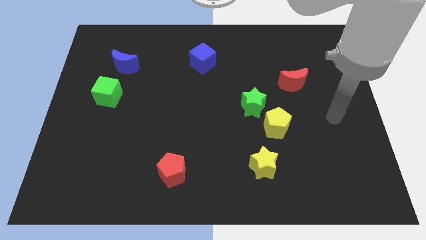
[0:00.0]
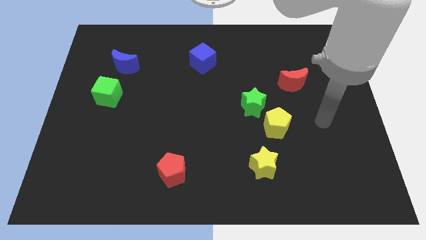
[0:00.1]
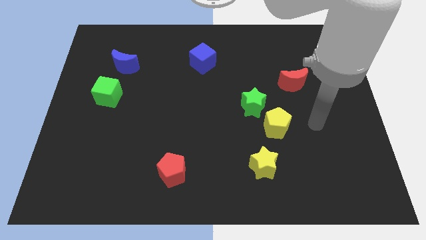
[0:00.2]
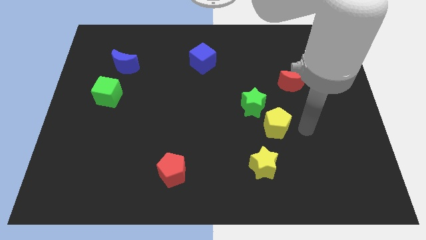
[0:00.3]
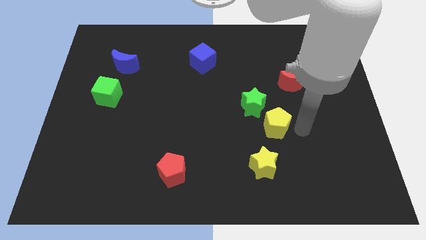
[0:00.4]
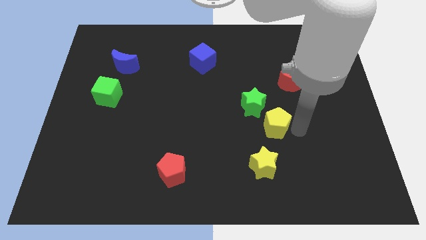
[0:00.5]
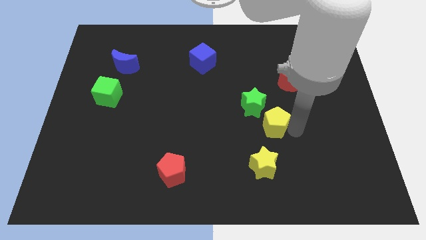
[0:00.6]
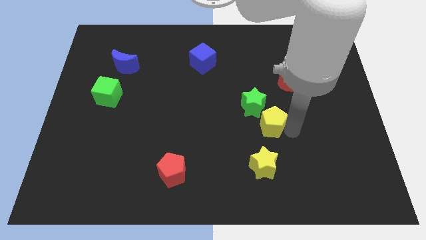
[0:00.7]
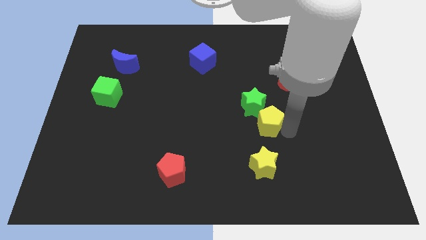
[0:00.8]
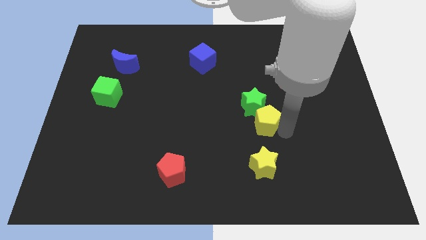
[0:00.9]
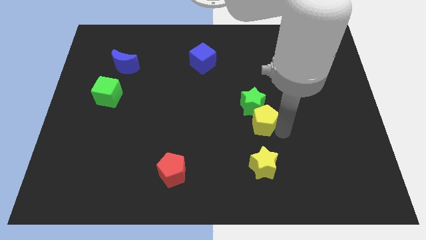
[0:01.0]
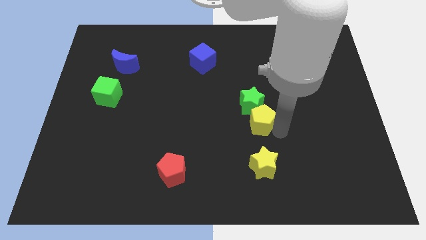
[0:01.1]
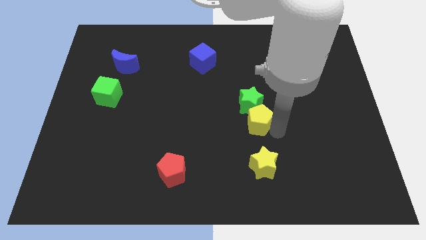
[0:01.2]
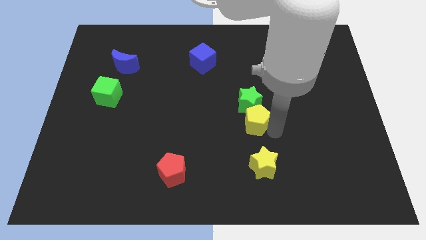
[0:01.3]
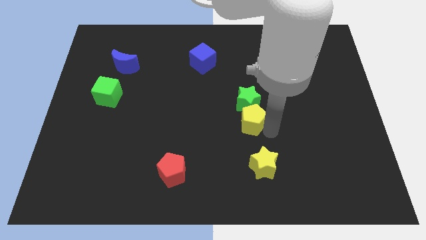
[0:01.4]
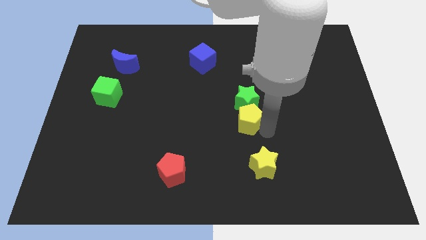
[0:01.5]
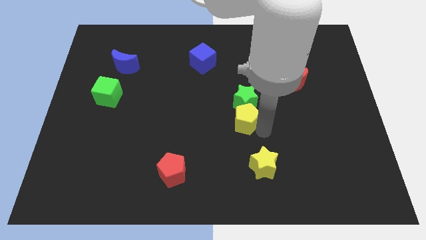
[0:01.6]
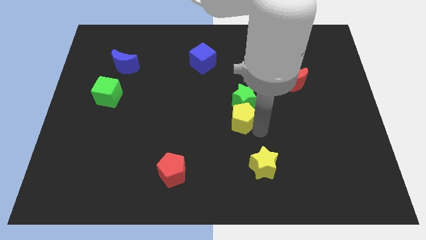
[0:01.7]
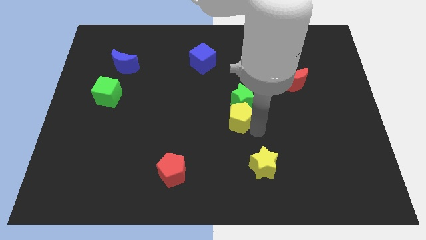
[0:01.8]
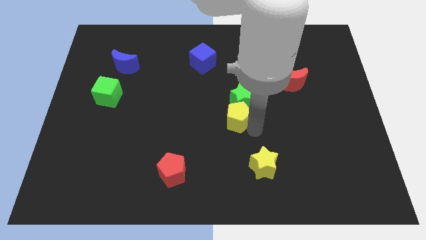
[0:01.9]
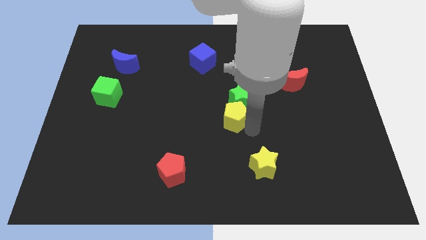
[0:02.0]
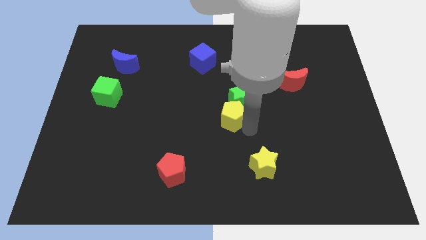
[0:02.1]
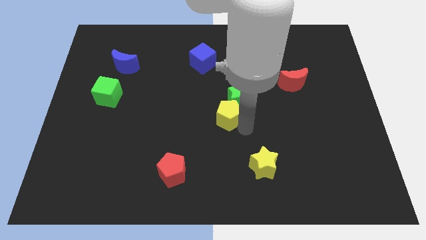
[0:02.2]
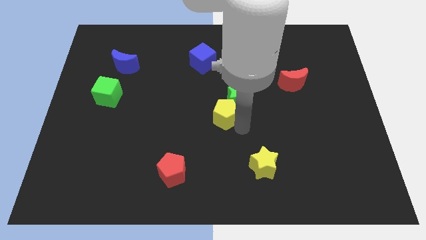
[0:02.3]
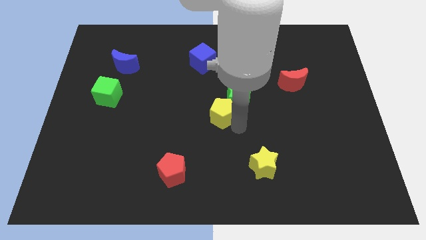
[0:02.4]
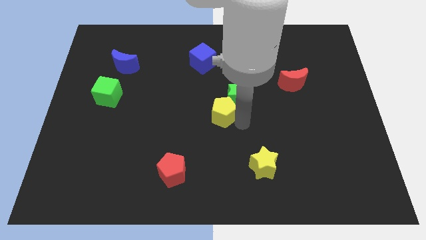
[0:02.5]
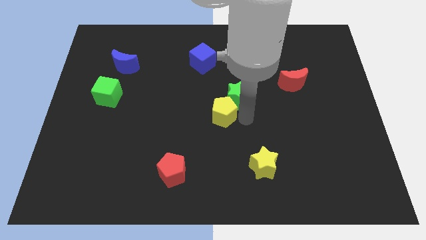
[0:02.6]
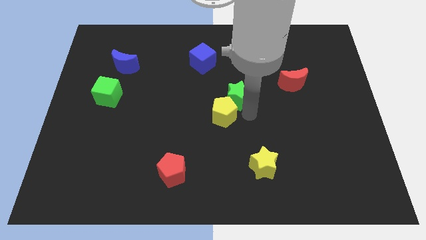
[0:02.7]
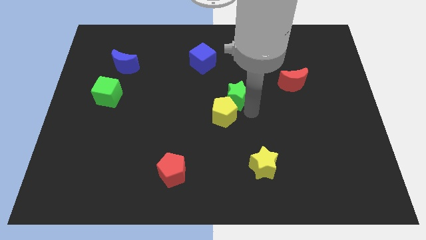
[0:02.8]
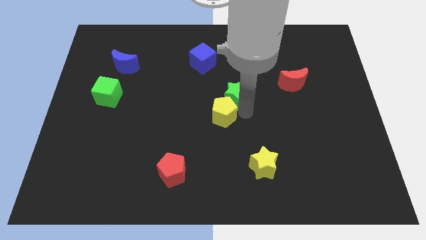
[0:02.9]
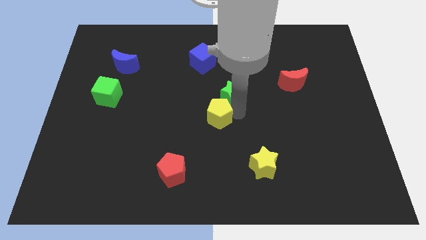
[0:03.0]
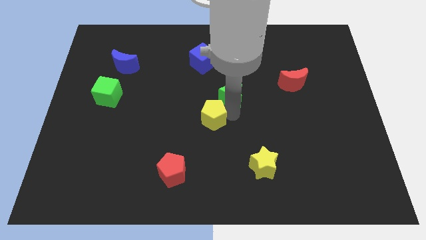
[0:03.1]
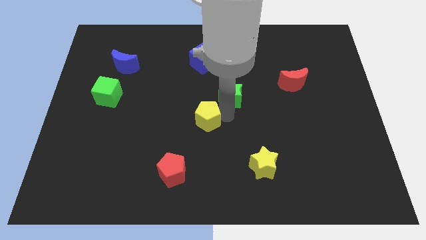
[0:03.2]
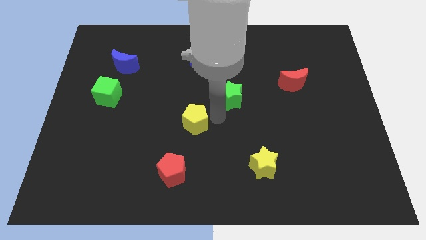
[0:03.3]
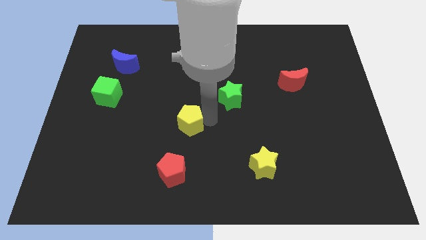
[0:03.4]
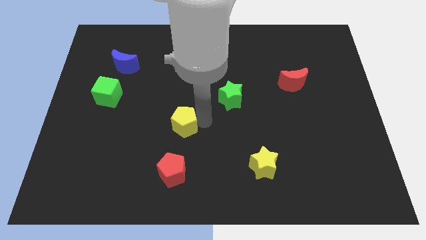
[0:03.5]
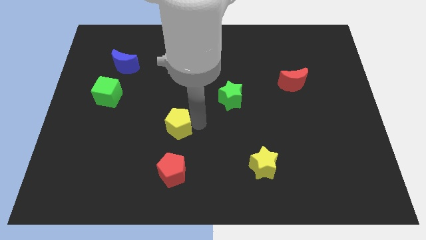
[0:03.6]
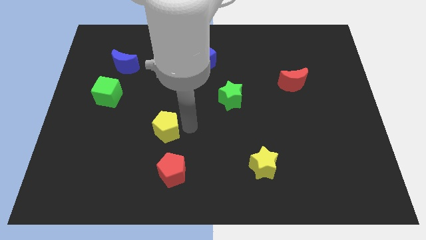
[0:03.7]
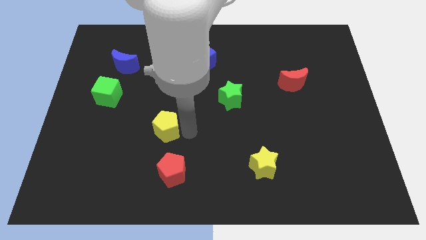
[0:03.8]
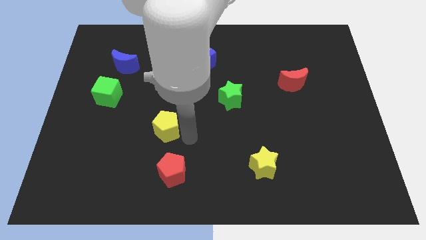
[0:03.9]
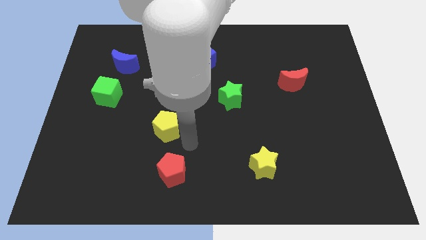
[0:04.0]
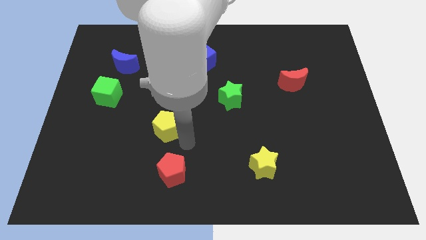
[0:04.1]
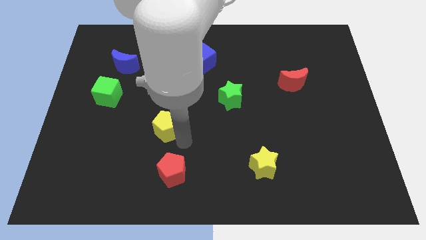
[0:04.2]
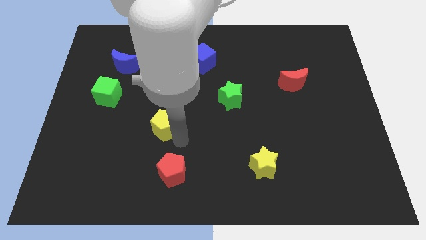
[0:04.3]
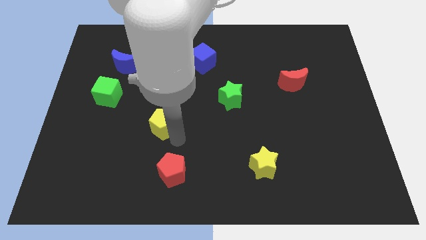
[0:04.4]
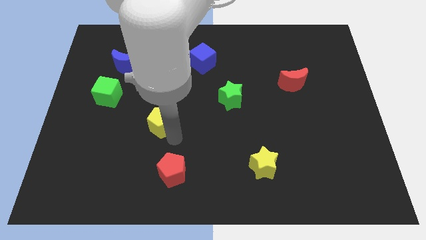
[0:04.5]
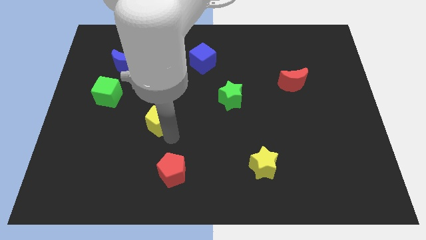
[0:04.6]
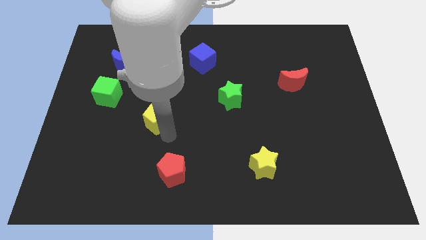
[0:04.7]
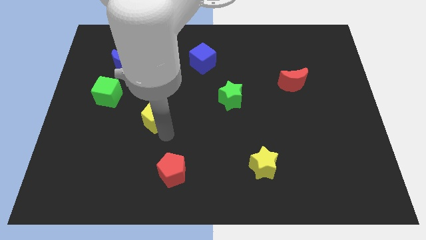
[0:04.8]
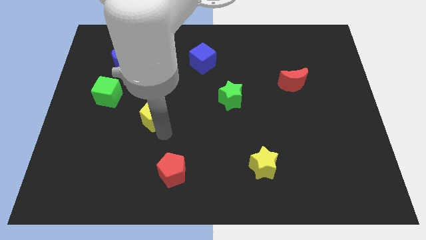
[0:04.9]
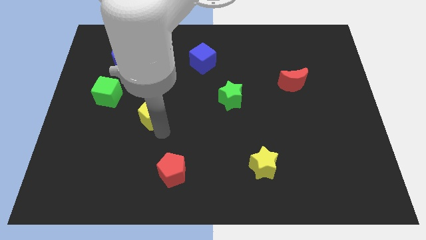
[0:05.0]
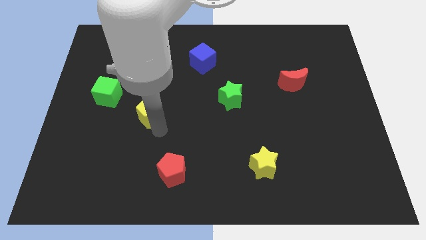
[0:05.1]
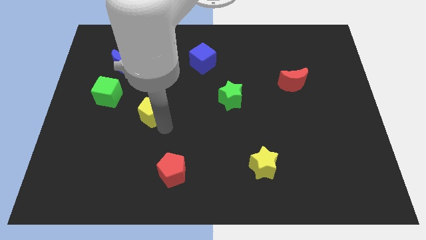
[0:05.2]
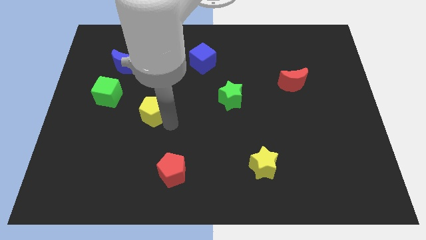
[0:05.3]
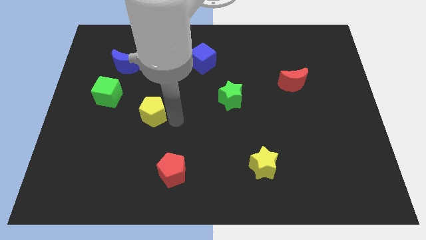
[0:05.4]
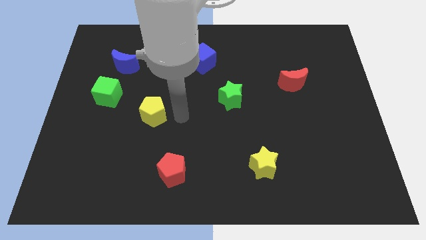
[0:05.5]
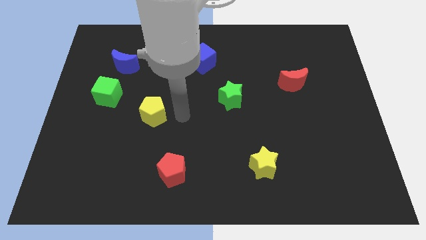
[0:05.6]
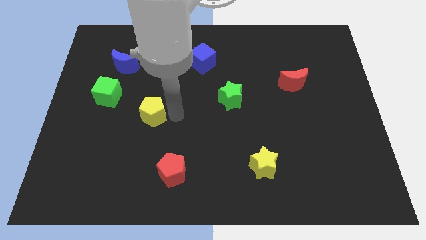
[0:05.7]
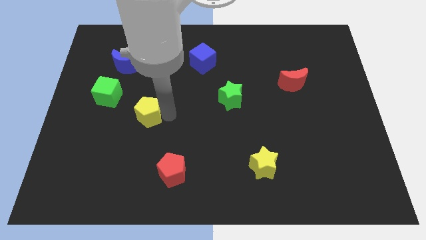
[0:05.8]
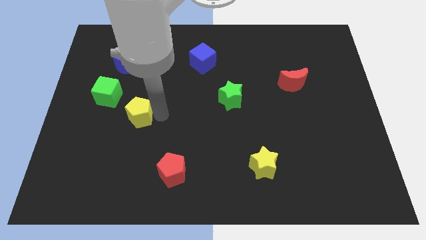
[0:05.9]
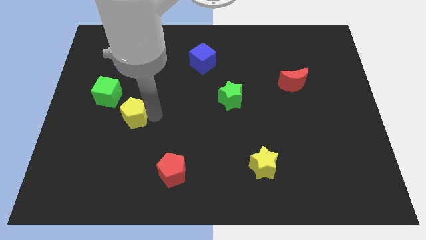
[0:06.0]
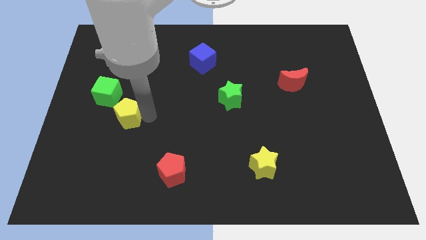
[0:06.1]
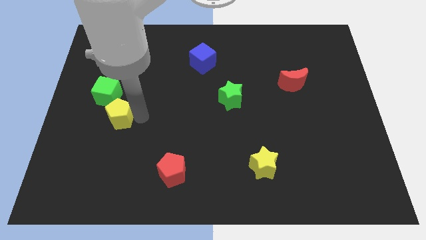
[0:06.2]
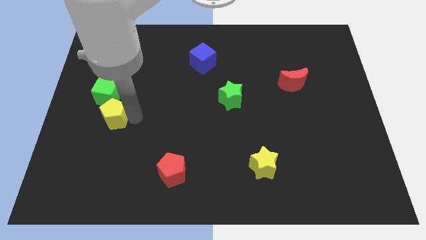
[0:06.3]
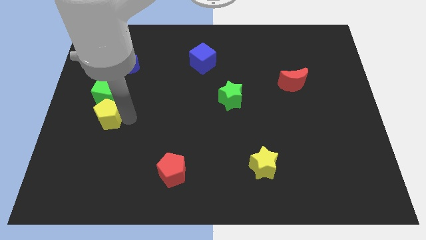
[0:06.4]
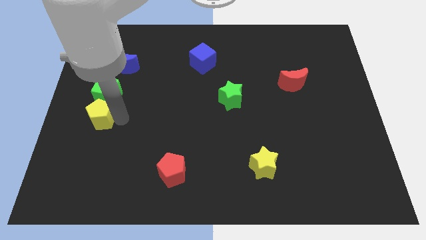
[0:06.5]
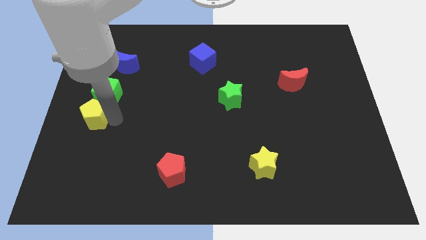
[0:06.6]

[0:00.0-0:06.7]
slide the yellow pentagon to the left side of the board

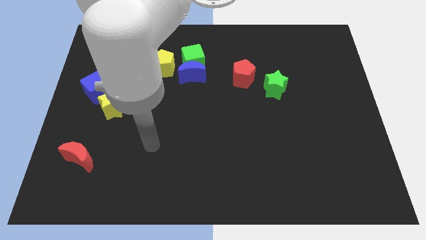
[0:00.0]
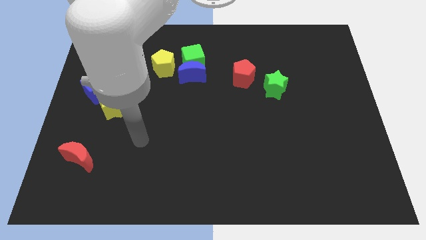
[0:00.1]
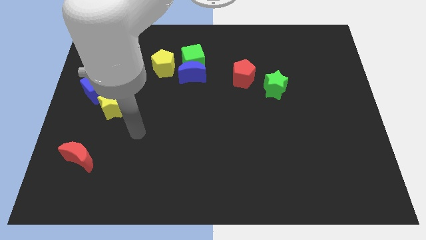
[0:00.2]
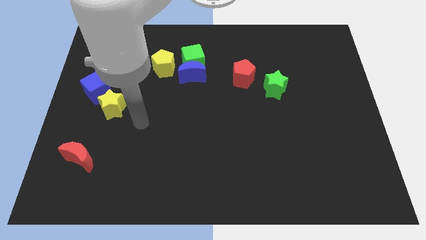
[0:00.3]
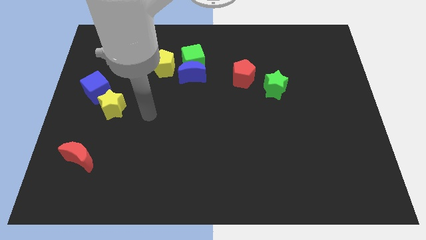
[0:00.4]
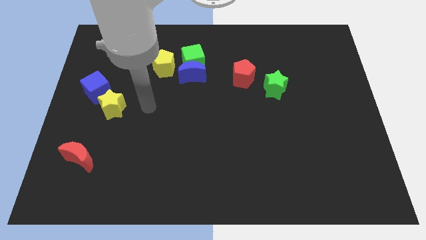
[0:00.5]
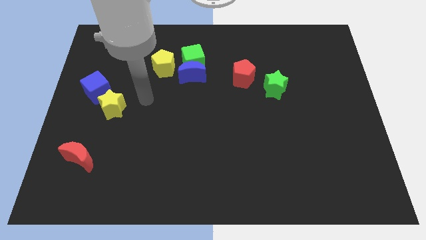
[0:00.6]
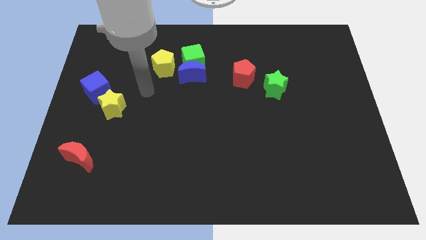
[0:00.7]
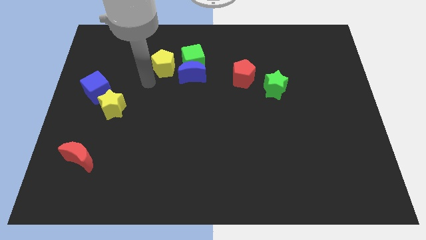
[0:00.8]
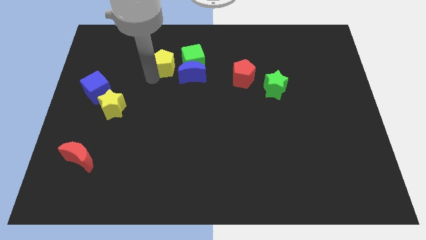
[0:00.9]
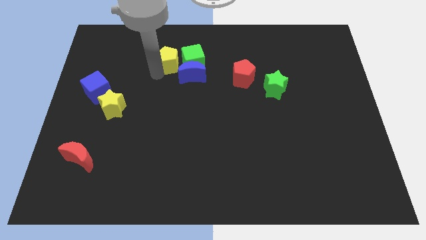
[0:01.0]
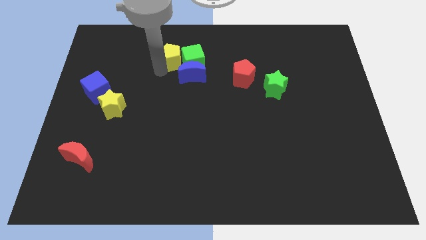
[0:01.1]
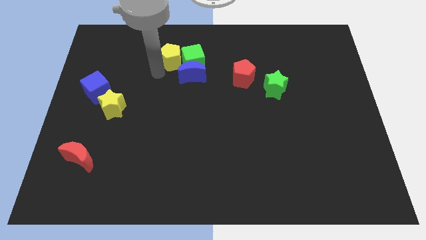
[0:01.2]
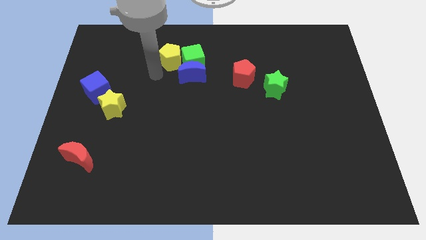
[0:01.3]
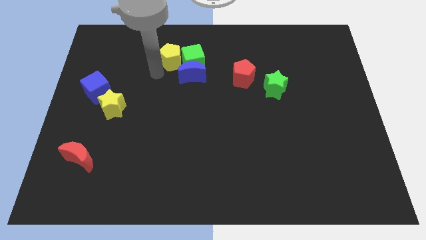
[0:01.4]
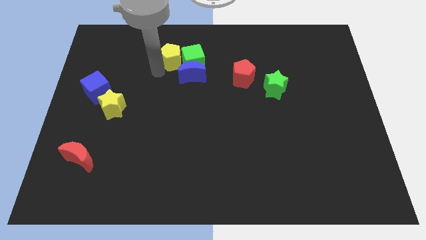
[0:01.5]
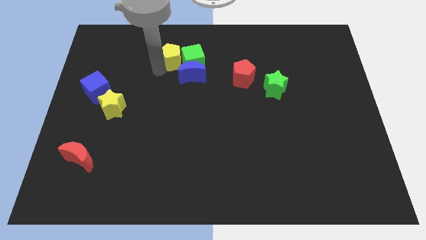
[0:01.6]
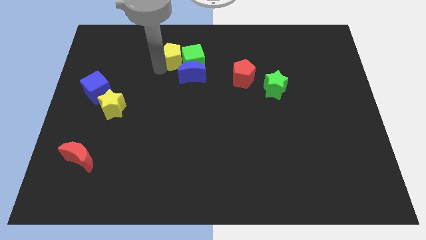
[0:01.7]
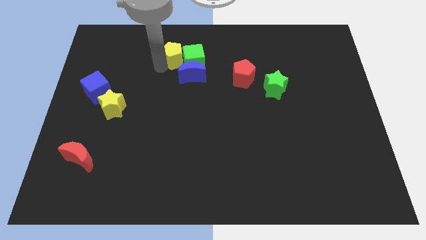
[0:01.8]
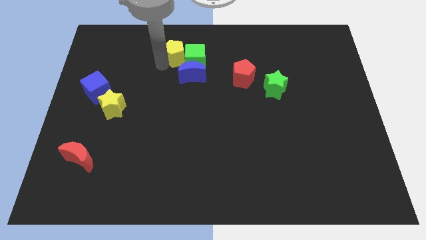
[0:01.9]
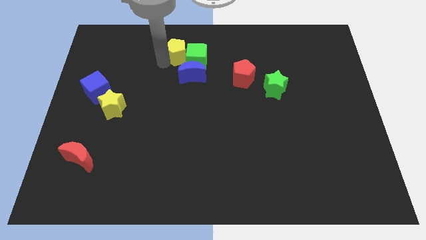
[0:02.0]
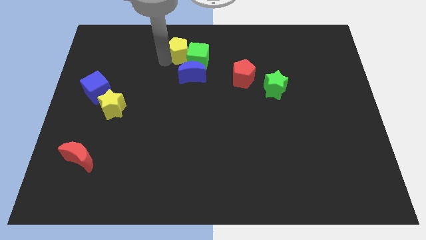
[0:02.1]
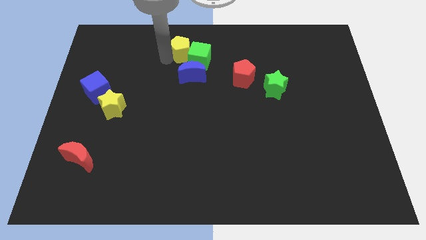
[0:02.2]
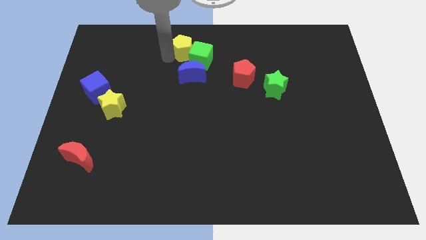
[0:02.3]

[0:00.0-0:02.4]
slide the yellow pentagon to the towards your base
